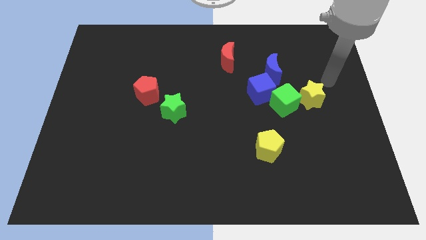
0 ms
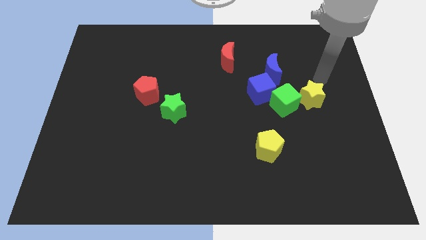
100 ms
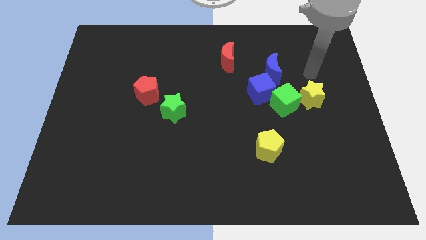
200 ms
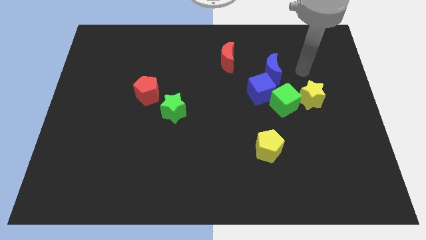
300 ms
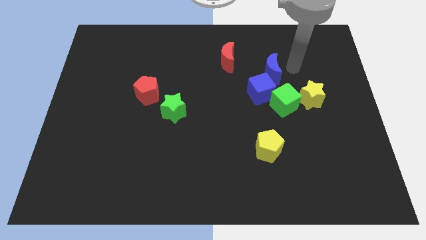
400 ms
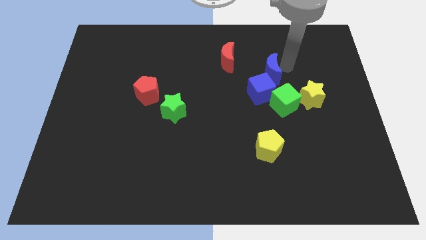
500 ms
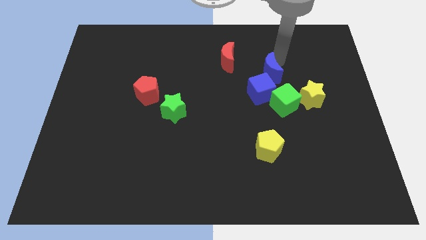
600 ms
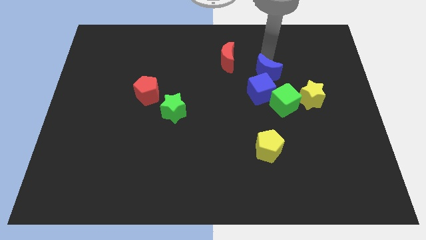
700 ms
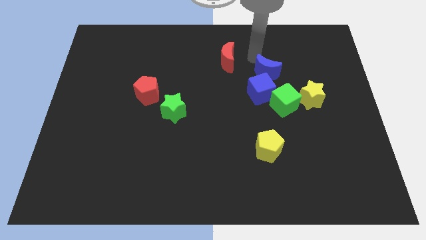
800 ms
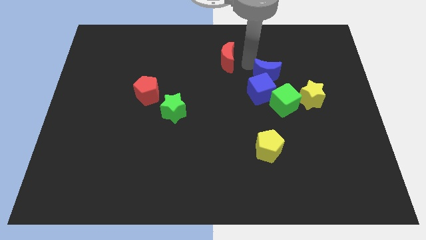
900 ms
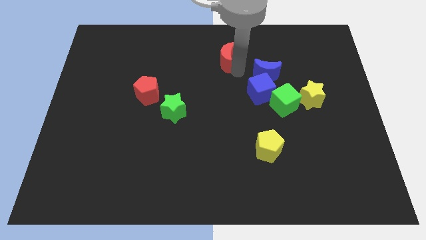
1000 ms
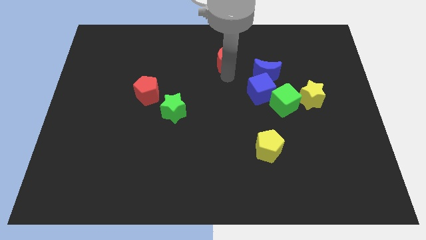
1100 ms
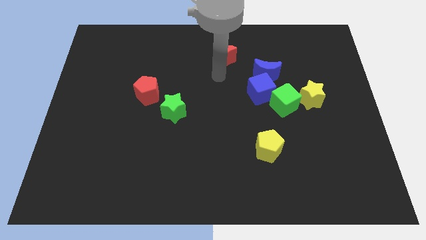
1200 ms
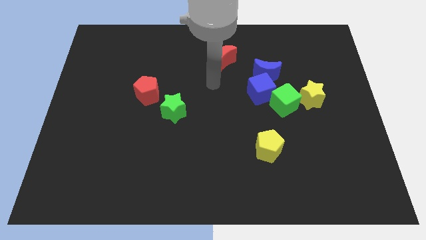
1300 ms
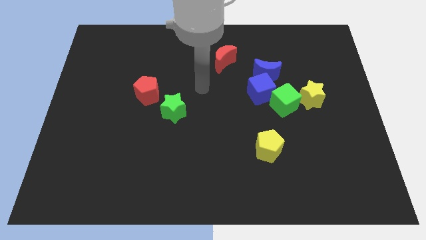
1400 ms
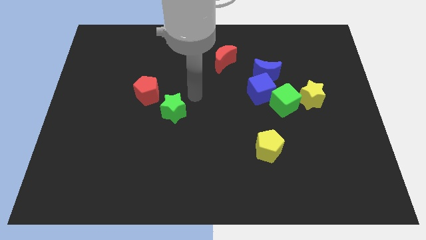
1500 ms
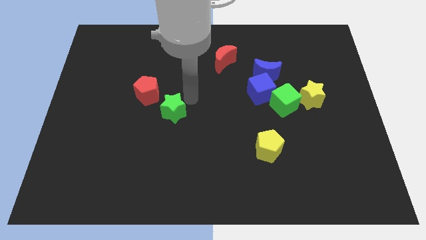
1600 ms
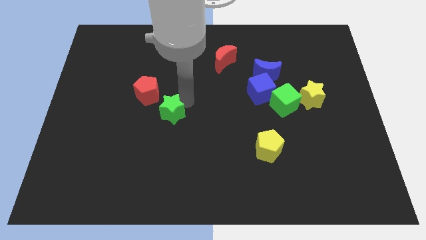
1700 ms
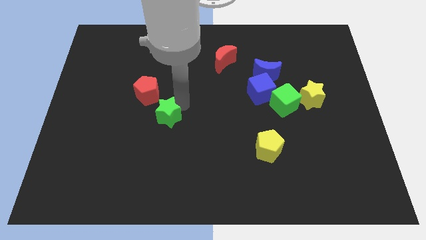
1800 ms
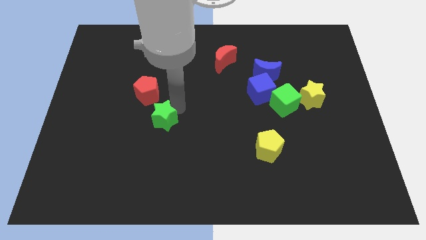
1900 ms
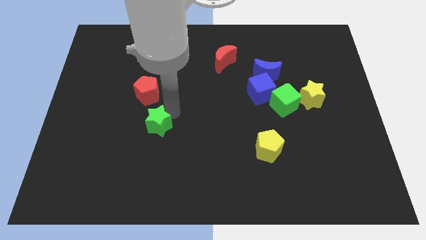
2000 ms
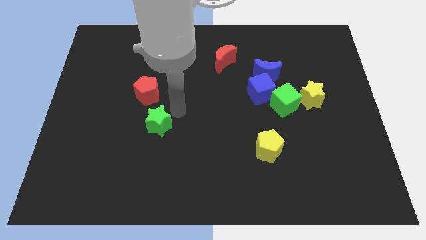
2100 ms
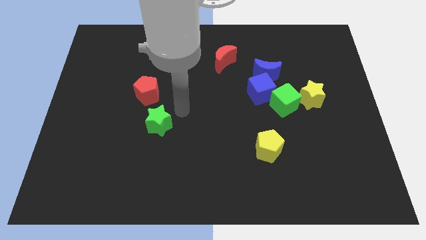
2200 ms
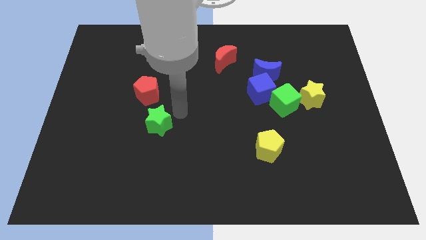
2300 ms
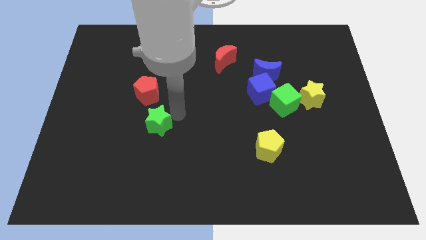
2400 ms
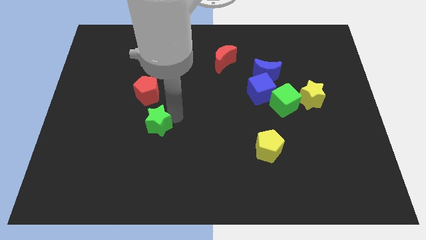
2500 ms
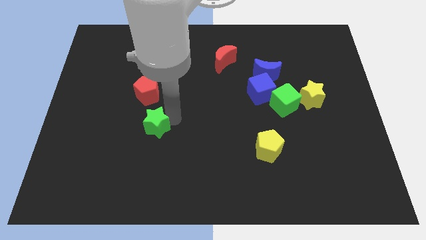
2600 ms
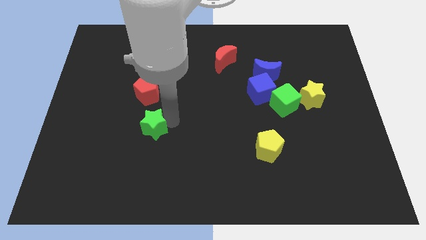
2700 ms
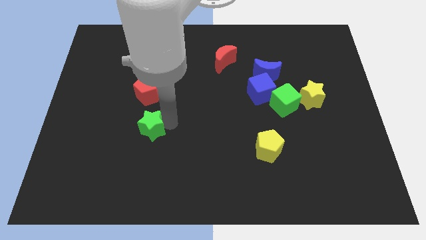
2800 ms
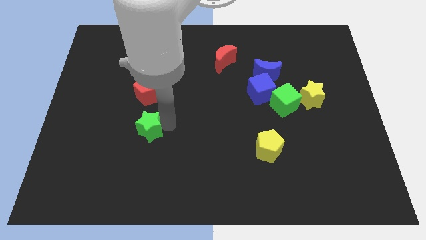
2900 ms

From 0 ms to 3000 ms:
slightly move the green star down and then left

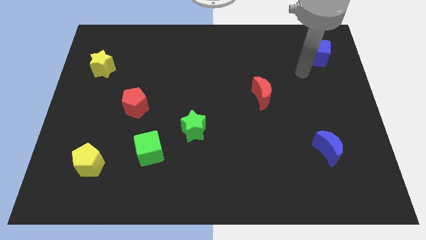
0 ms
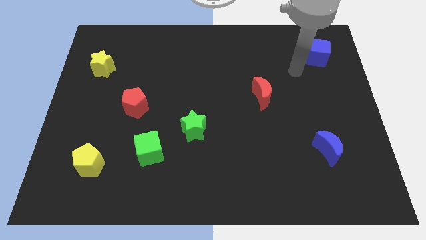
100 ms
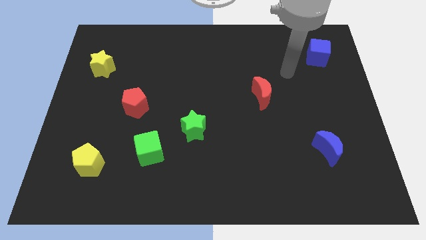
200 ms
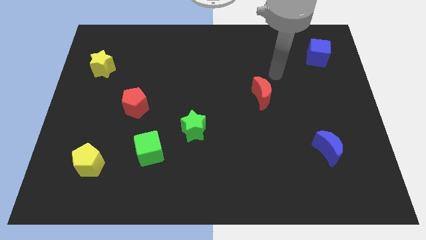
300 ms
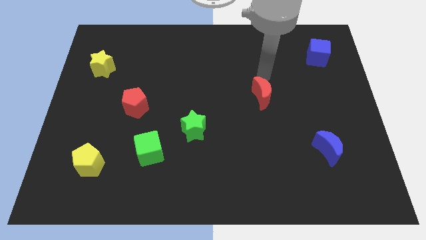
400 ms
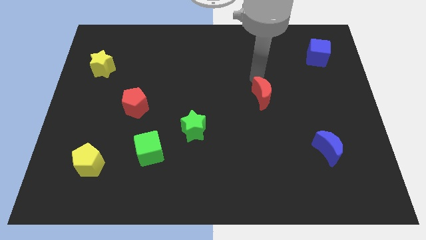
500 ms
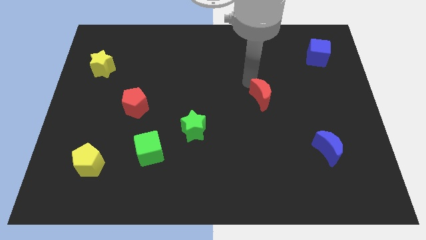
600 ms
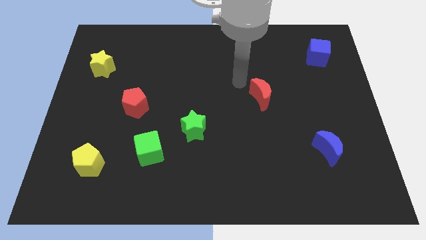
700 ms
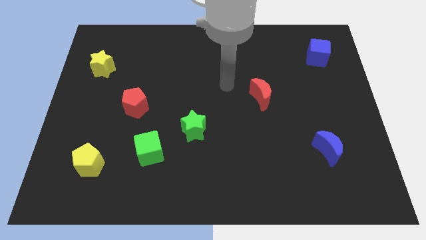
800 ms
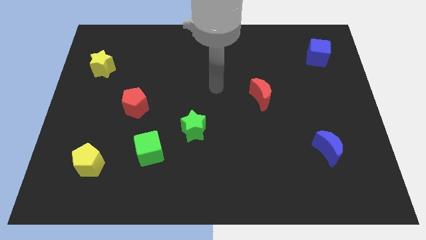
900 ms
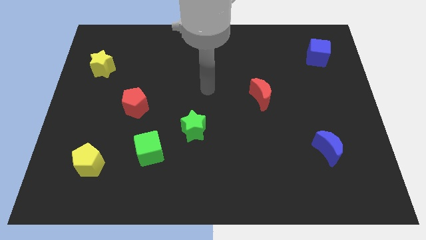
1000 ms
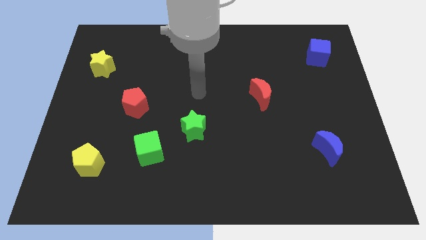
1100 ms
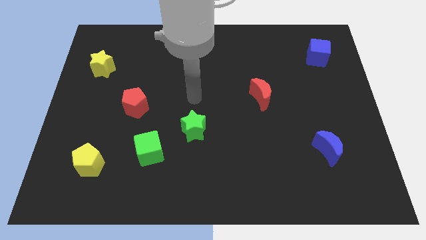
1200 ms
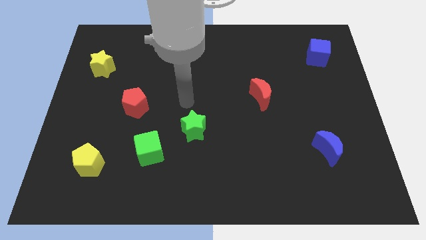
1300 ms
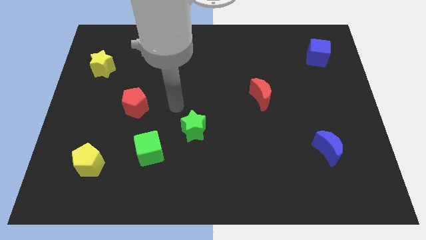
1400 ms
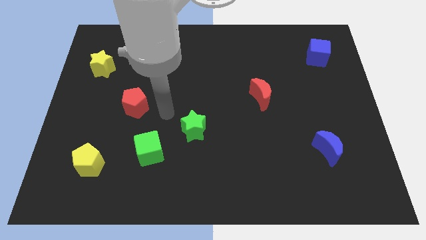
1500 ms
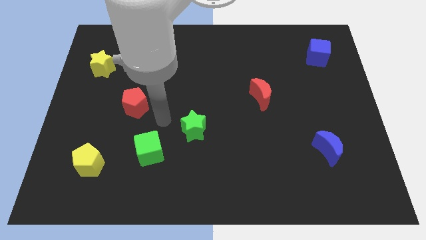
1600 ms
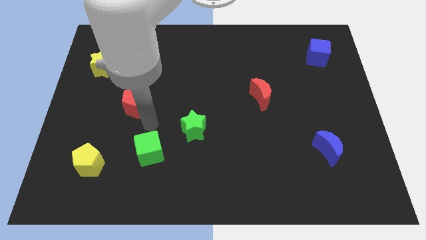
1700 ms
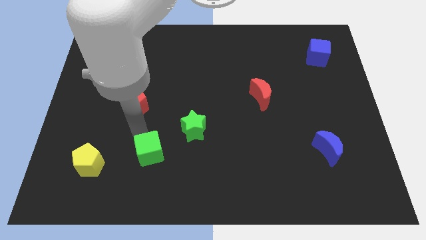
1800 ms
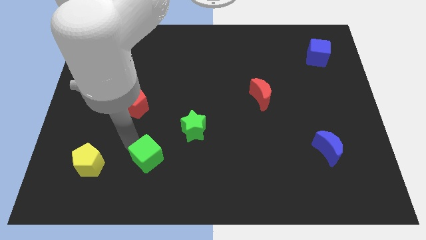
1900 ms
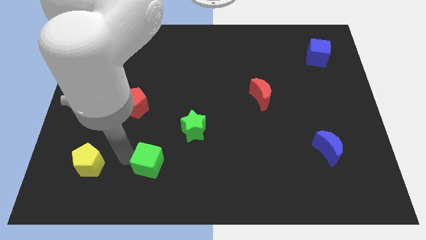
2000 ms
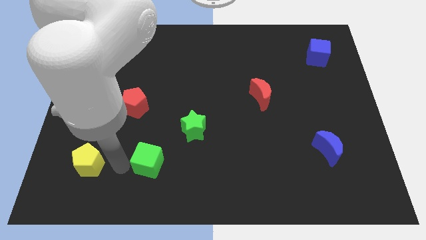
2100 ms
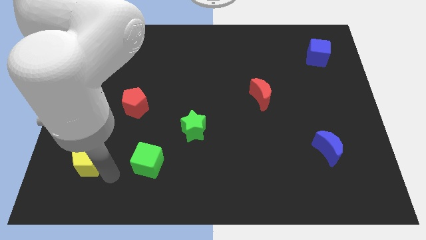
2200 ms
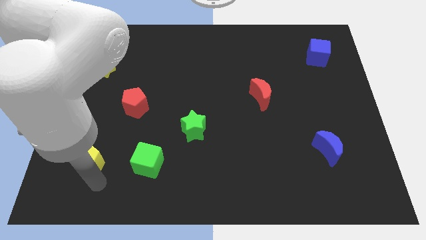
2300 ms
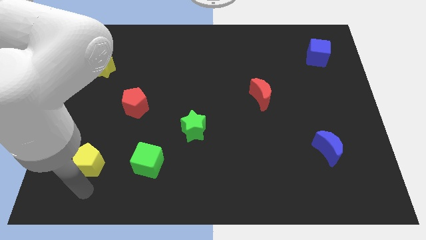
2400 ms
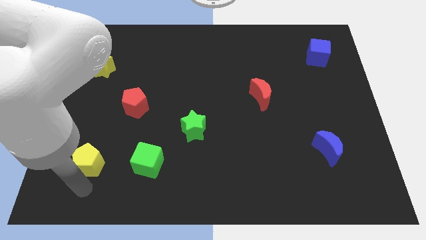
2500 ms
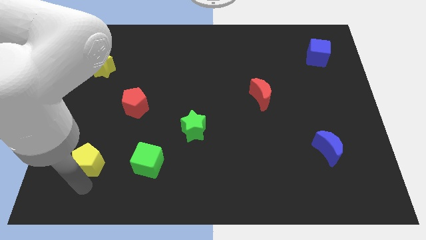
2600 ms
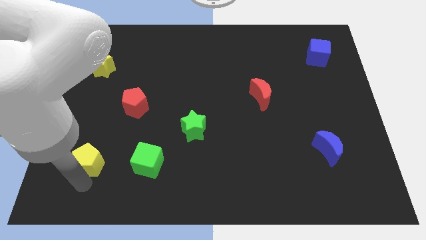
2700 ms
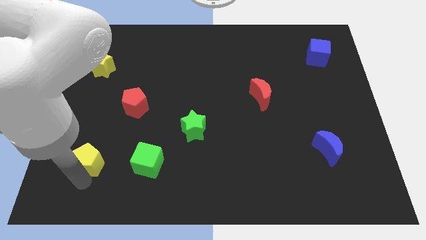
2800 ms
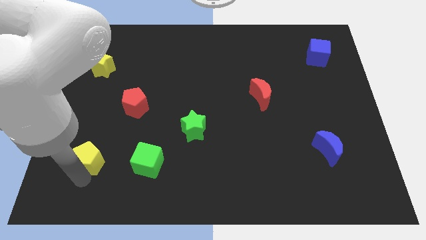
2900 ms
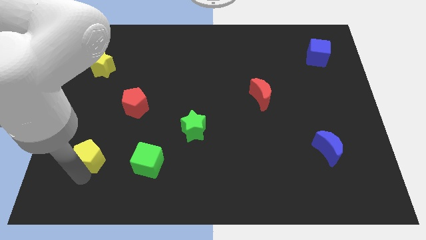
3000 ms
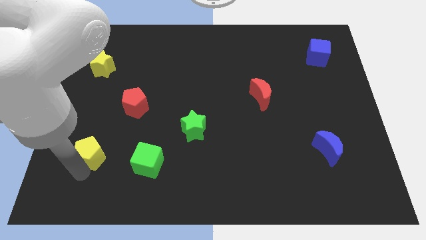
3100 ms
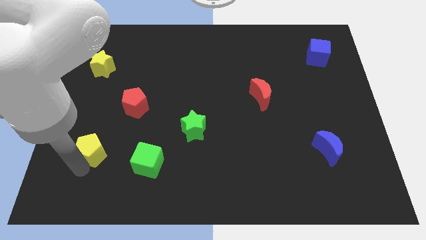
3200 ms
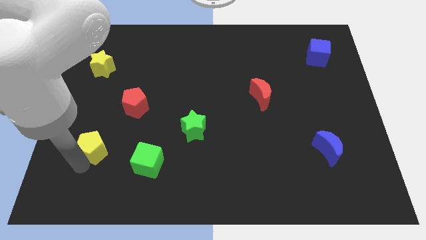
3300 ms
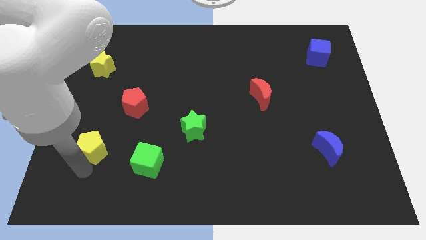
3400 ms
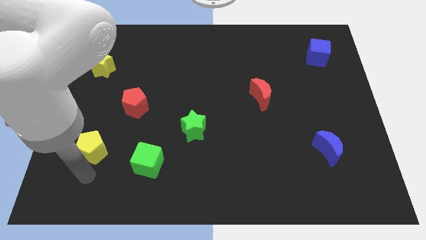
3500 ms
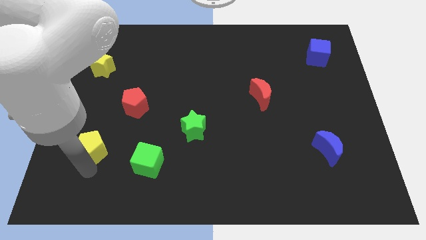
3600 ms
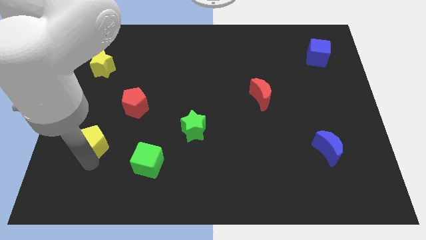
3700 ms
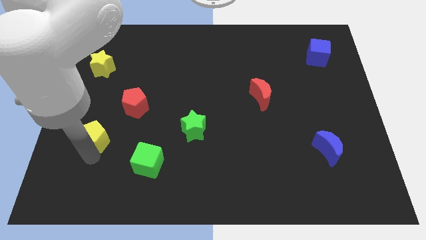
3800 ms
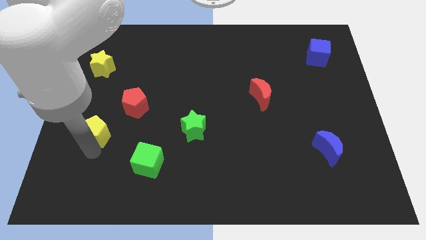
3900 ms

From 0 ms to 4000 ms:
move the yellow pentagon upwards somewhat

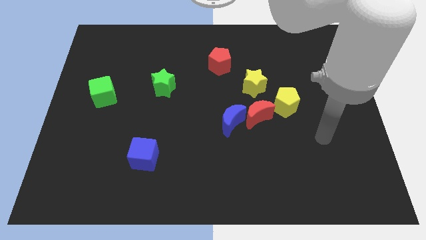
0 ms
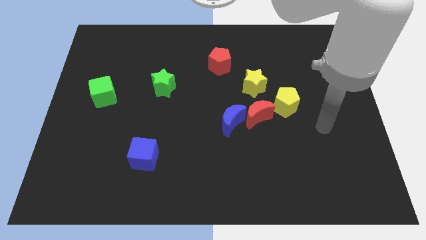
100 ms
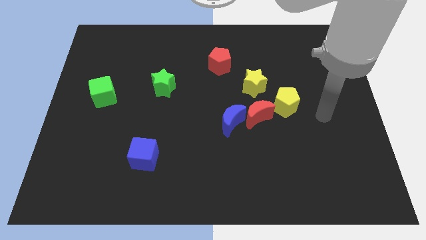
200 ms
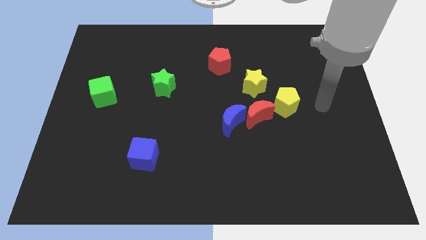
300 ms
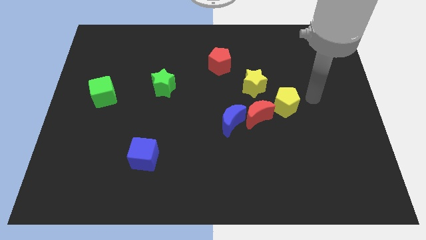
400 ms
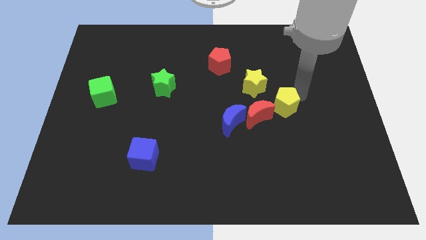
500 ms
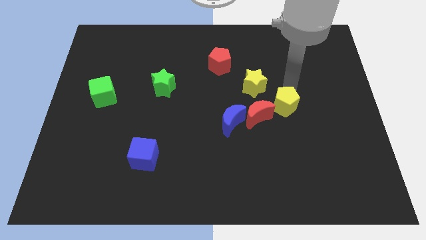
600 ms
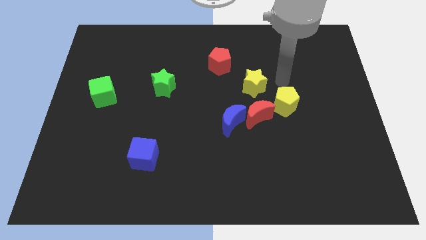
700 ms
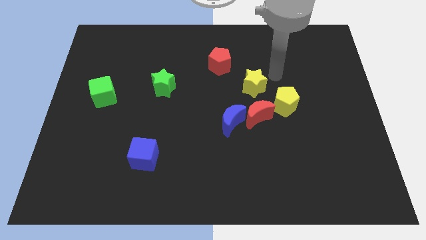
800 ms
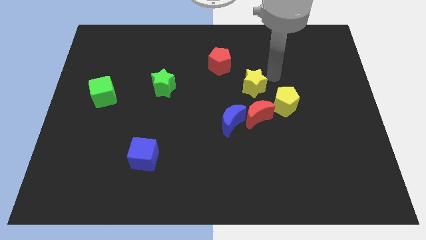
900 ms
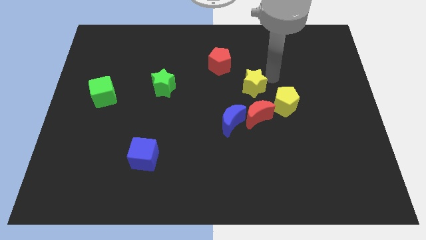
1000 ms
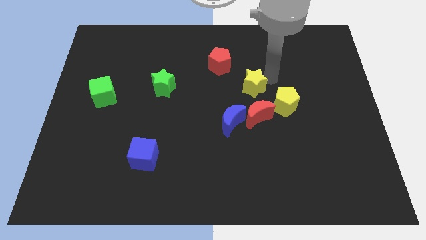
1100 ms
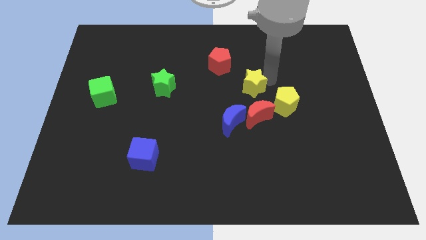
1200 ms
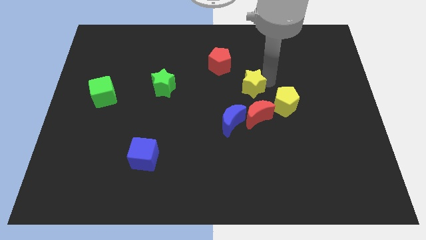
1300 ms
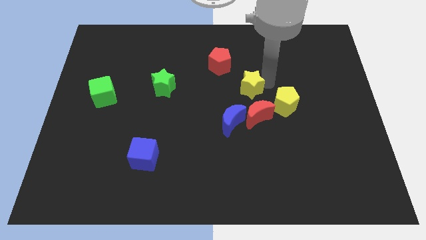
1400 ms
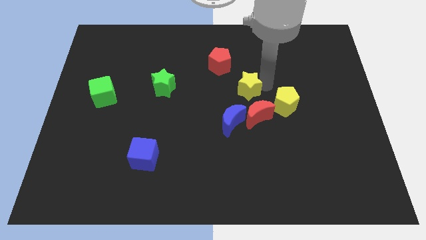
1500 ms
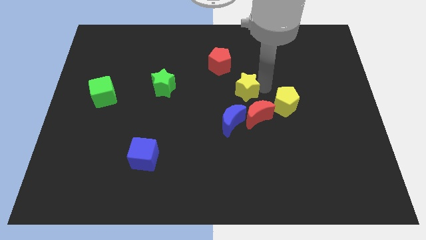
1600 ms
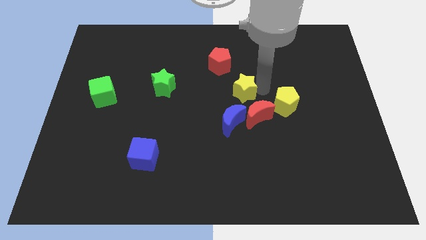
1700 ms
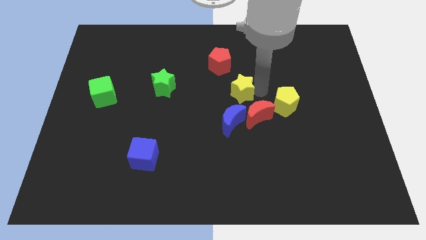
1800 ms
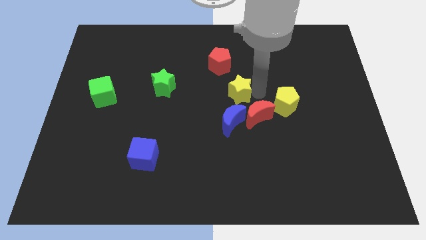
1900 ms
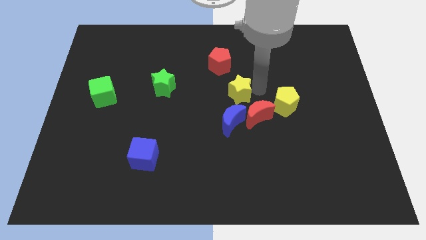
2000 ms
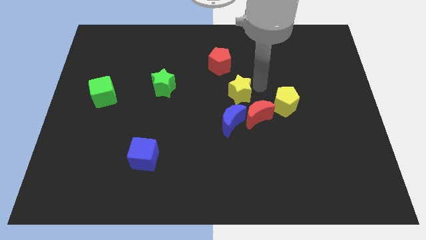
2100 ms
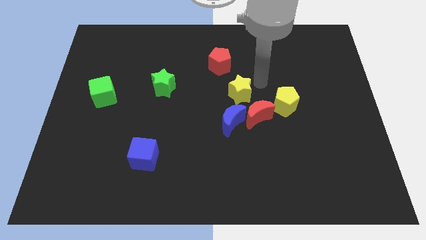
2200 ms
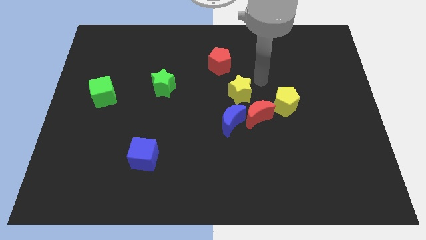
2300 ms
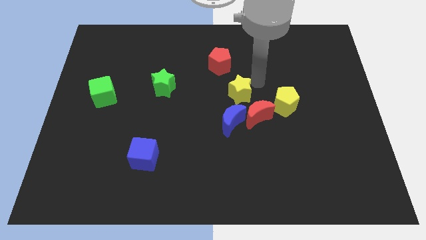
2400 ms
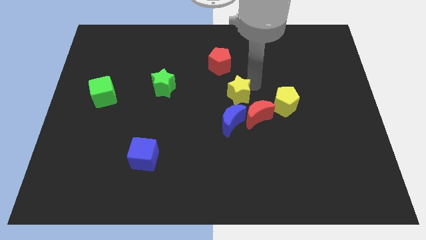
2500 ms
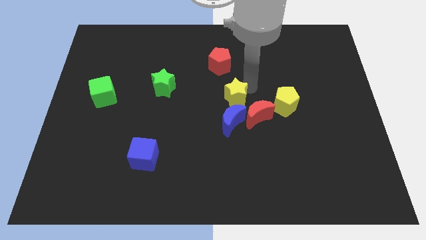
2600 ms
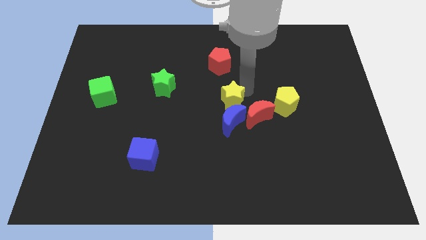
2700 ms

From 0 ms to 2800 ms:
slide the yellow star diagonally downwards and to the left a little bit
